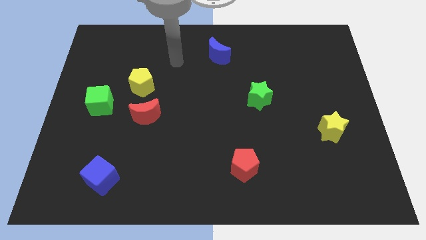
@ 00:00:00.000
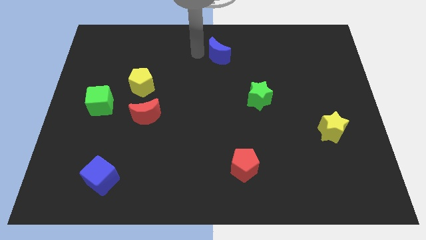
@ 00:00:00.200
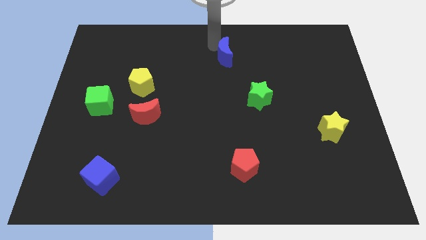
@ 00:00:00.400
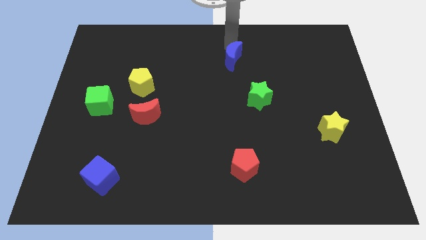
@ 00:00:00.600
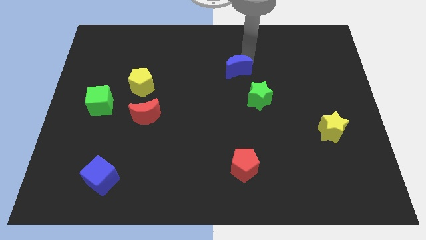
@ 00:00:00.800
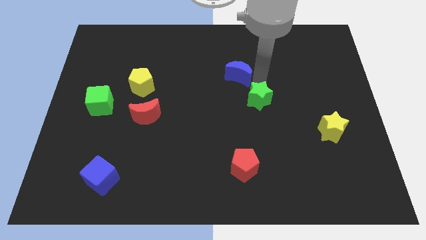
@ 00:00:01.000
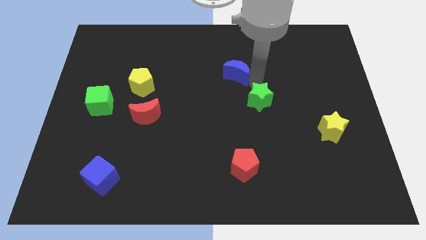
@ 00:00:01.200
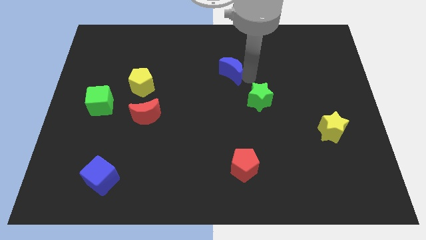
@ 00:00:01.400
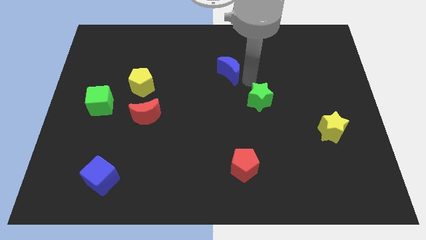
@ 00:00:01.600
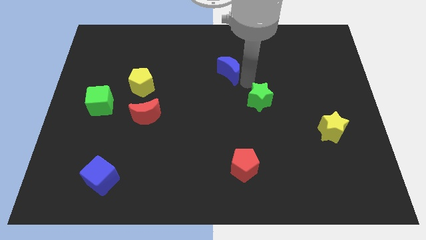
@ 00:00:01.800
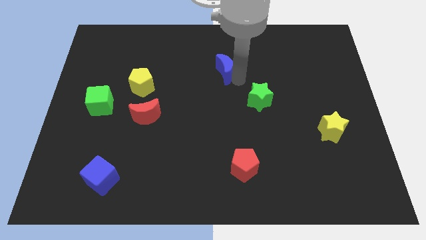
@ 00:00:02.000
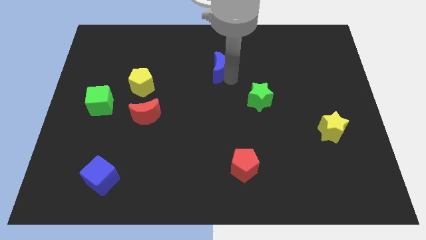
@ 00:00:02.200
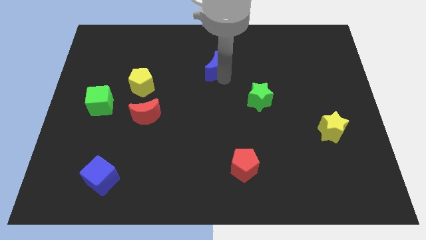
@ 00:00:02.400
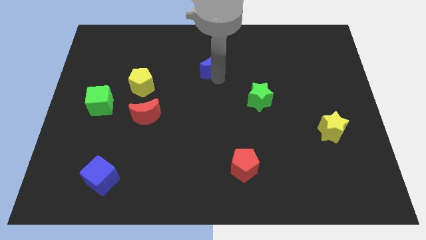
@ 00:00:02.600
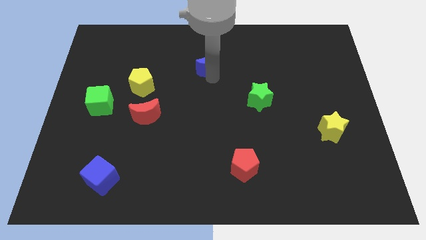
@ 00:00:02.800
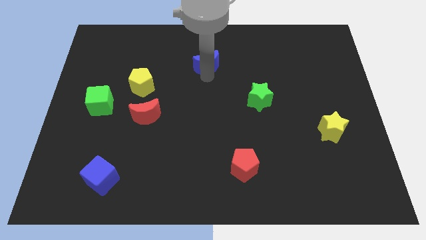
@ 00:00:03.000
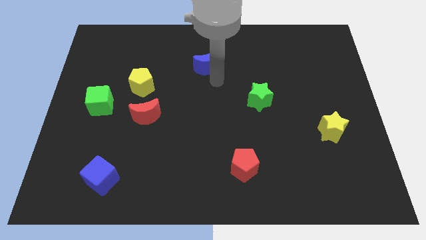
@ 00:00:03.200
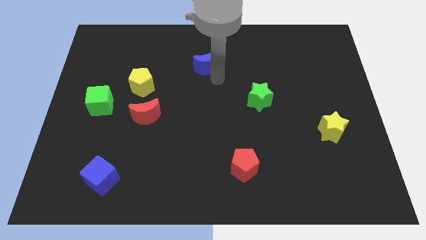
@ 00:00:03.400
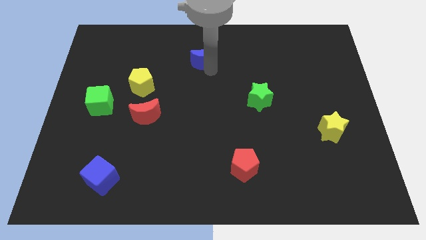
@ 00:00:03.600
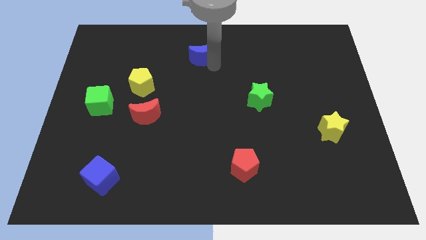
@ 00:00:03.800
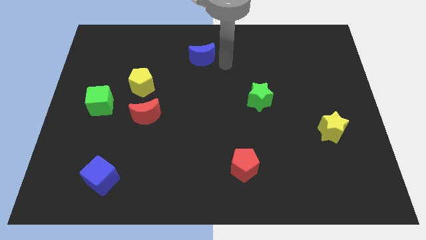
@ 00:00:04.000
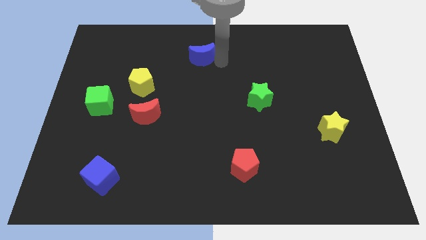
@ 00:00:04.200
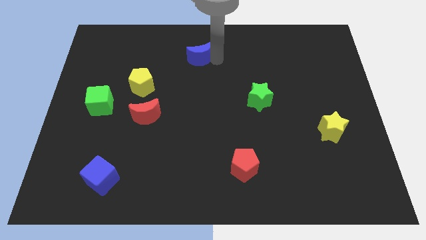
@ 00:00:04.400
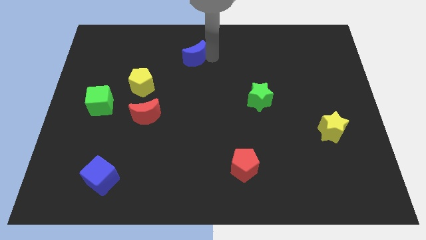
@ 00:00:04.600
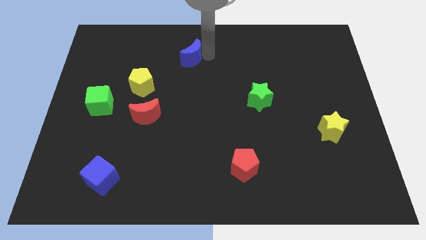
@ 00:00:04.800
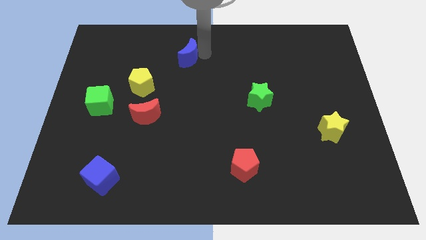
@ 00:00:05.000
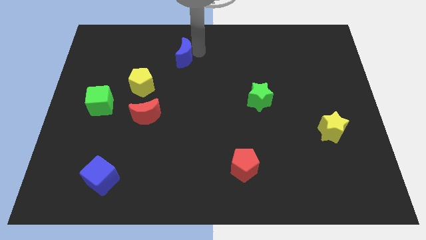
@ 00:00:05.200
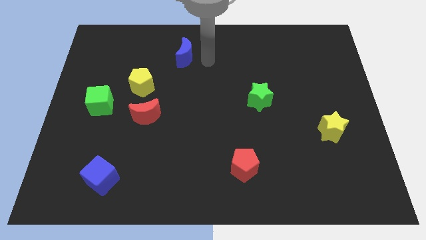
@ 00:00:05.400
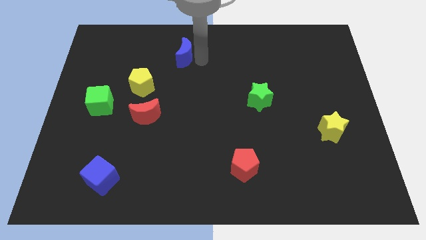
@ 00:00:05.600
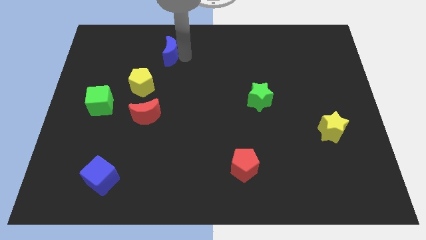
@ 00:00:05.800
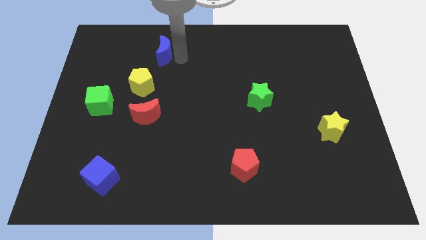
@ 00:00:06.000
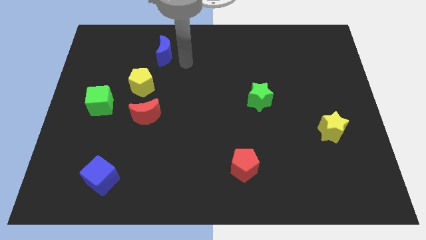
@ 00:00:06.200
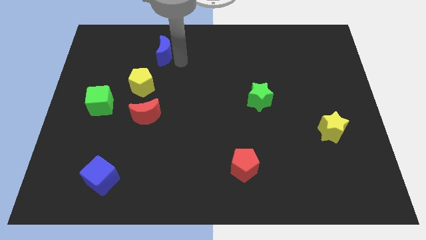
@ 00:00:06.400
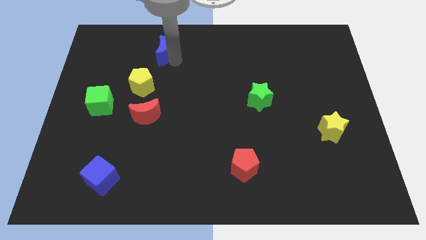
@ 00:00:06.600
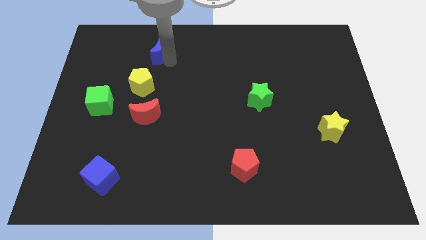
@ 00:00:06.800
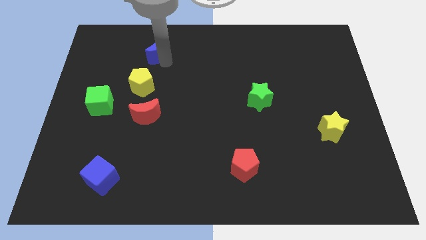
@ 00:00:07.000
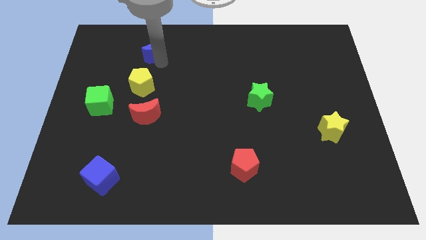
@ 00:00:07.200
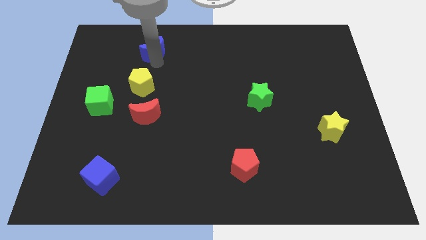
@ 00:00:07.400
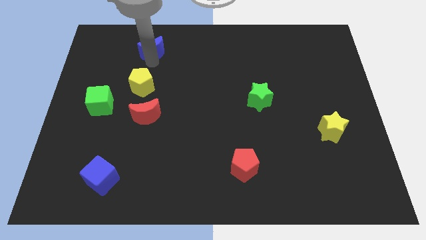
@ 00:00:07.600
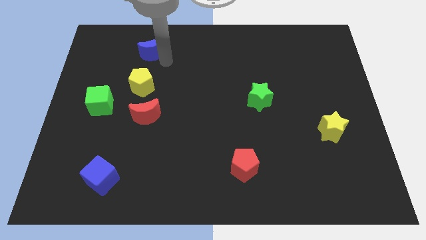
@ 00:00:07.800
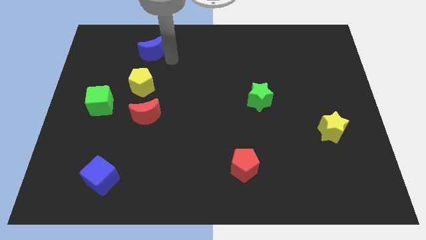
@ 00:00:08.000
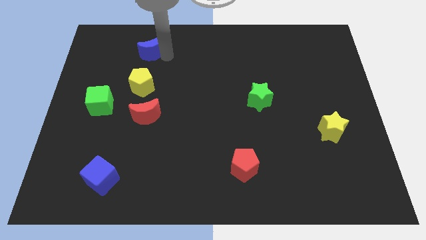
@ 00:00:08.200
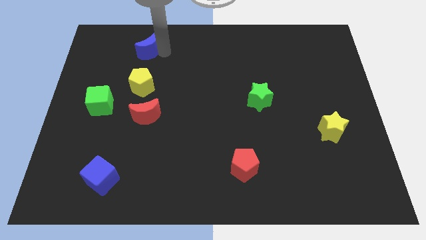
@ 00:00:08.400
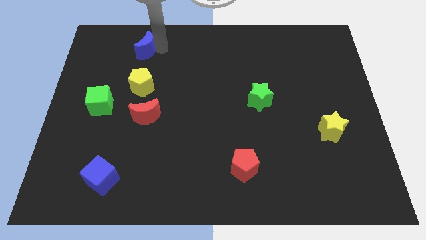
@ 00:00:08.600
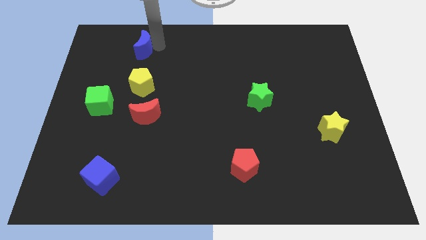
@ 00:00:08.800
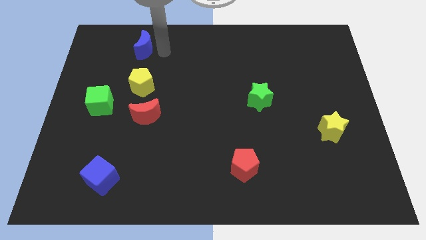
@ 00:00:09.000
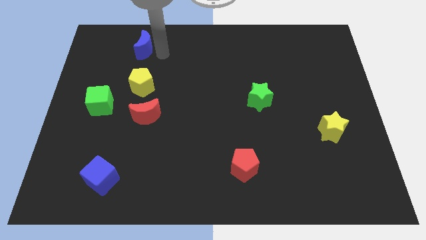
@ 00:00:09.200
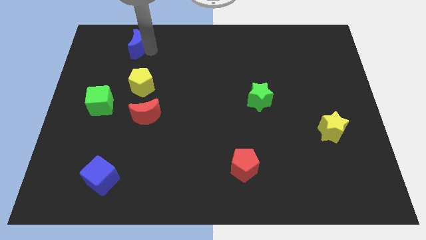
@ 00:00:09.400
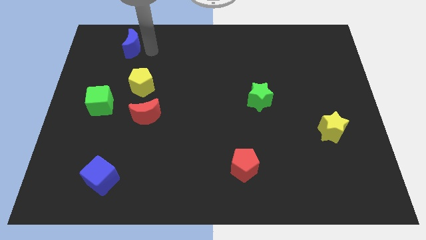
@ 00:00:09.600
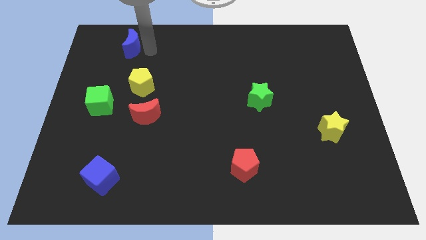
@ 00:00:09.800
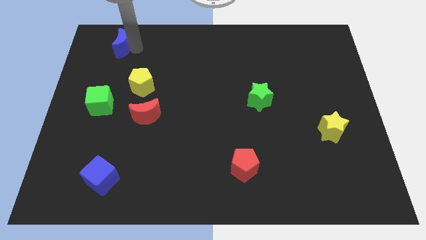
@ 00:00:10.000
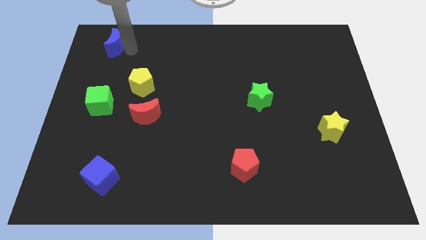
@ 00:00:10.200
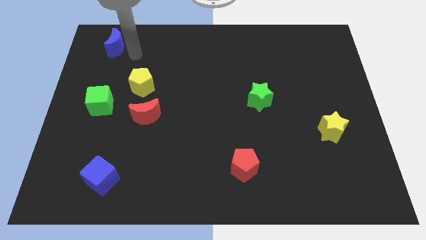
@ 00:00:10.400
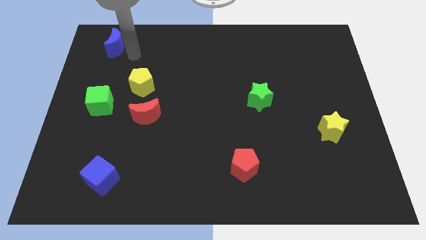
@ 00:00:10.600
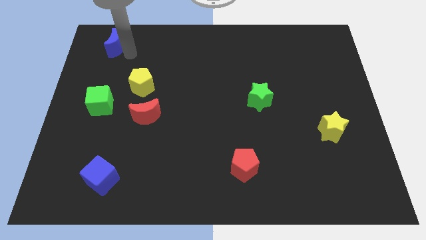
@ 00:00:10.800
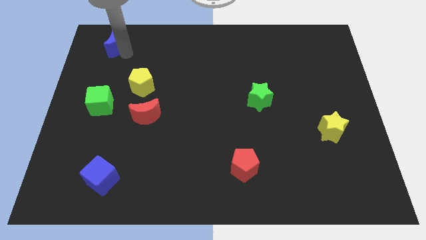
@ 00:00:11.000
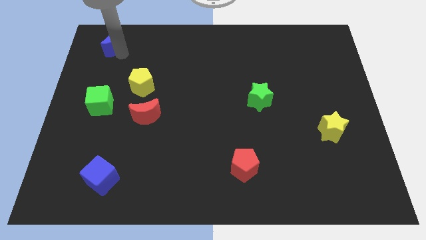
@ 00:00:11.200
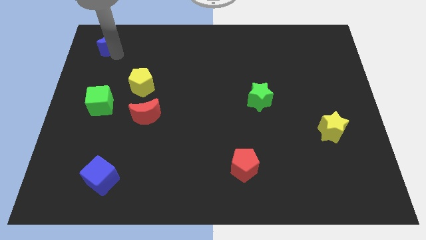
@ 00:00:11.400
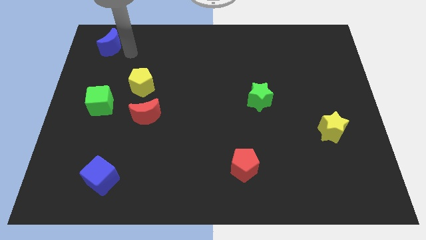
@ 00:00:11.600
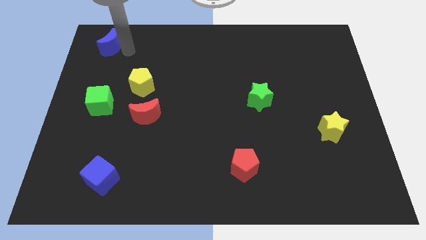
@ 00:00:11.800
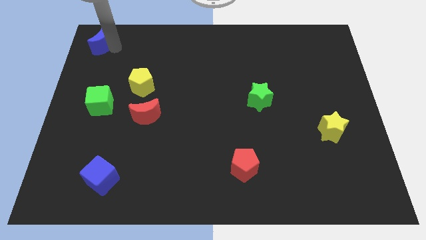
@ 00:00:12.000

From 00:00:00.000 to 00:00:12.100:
put the blue moon to the top left
